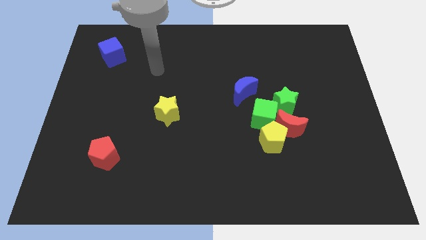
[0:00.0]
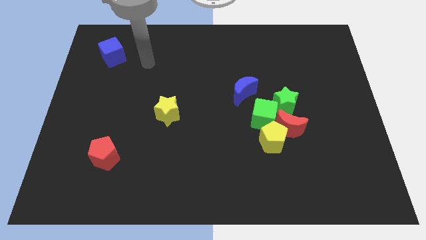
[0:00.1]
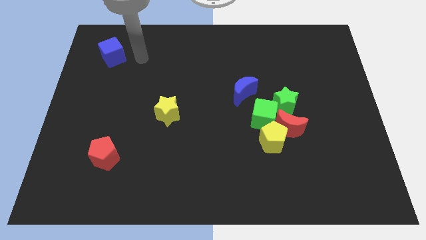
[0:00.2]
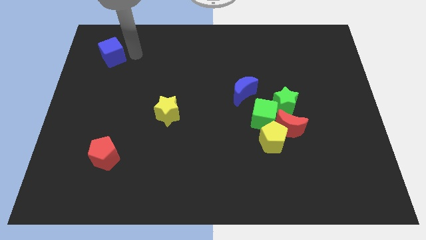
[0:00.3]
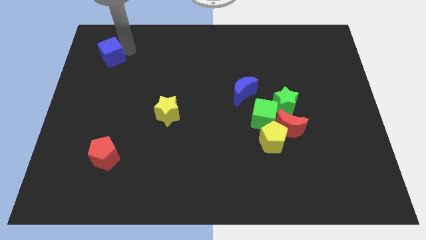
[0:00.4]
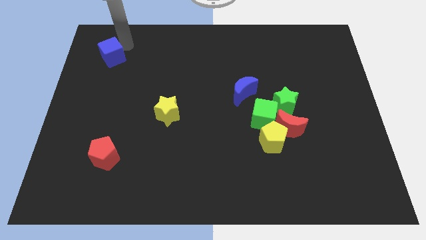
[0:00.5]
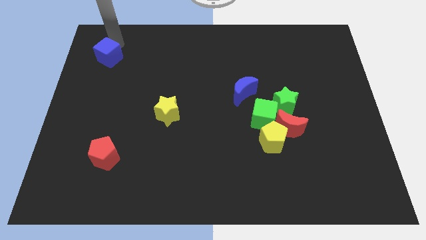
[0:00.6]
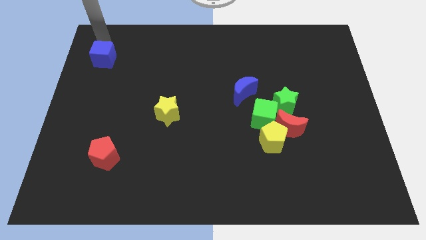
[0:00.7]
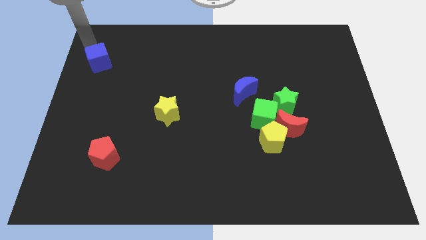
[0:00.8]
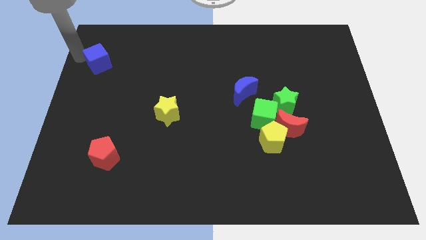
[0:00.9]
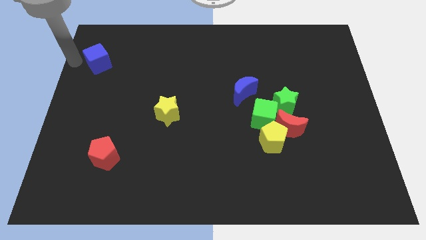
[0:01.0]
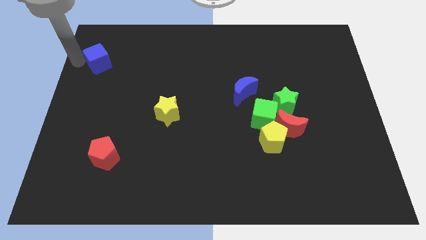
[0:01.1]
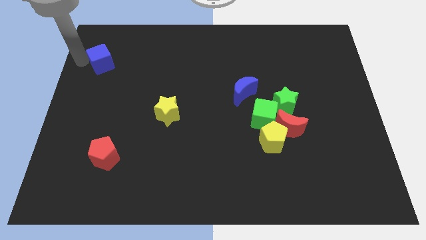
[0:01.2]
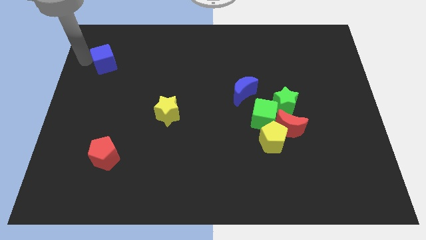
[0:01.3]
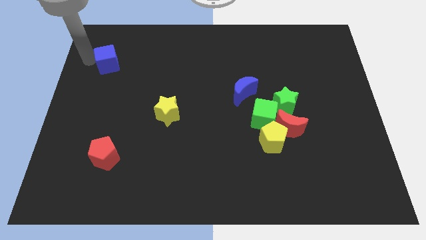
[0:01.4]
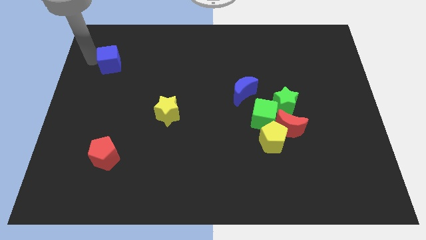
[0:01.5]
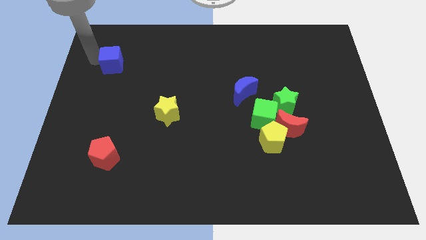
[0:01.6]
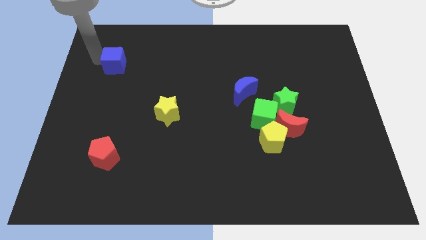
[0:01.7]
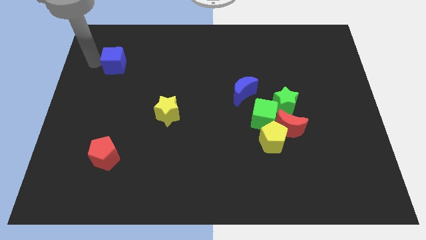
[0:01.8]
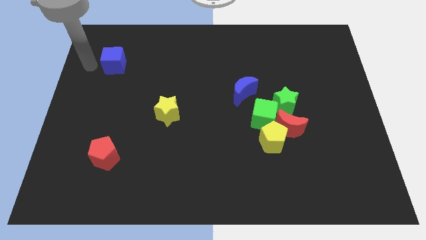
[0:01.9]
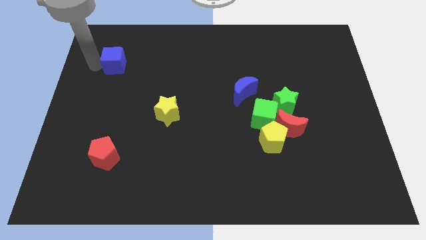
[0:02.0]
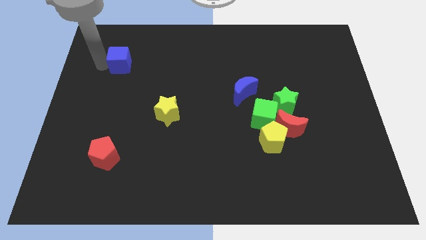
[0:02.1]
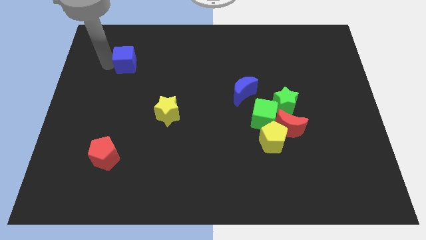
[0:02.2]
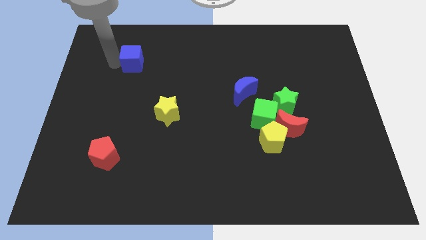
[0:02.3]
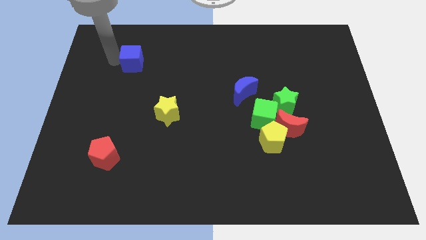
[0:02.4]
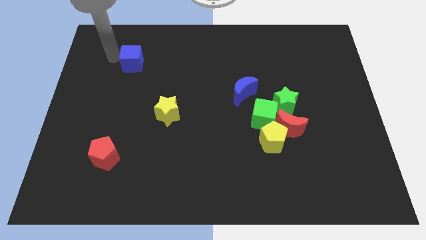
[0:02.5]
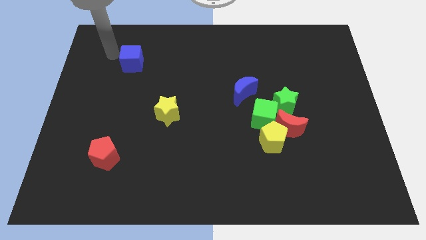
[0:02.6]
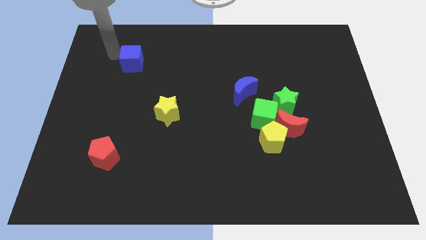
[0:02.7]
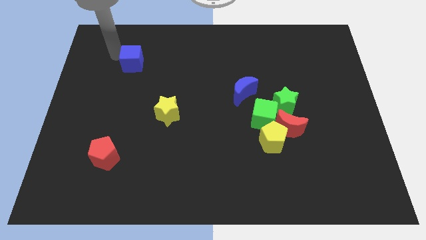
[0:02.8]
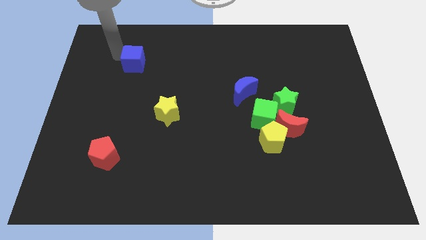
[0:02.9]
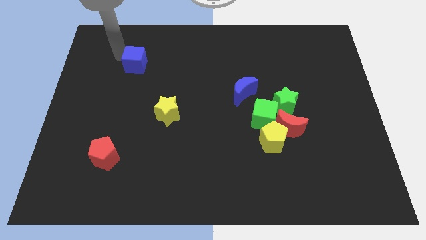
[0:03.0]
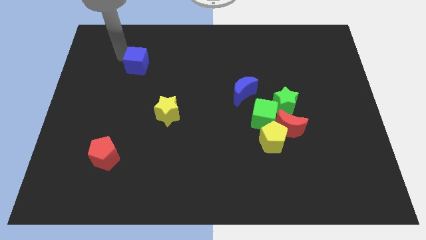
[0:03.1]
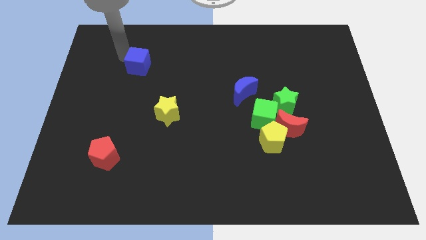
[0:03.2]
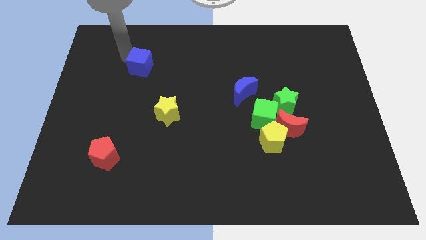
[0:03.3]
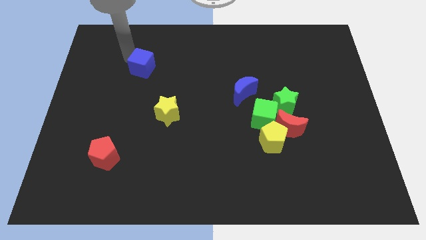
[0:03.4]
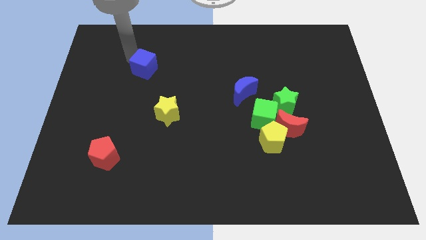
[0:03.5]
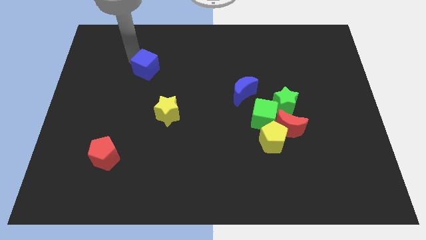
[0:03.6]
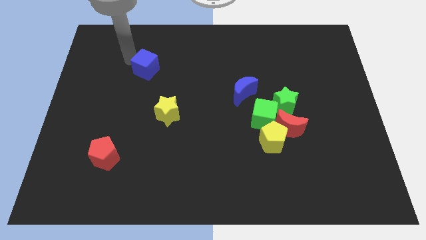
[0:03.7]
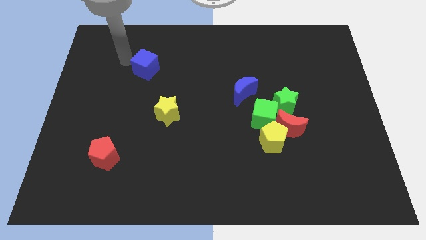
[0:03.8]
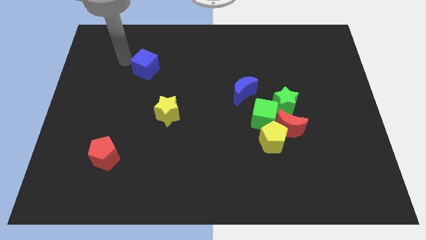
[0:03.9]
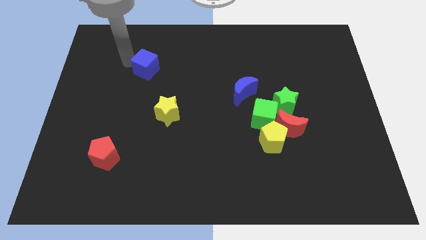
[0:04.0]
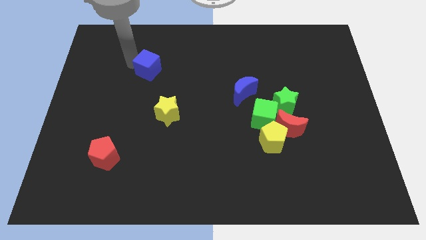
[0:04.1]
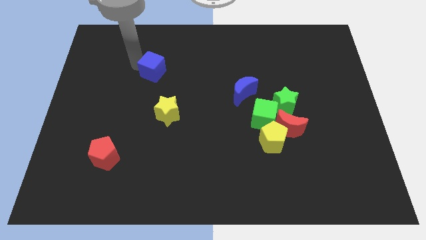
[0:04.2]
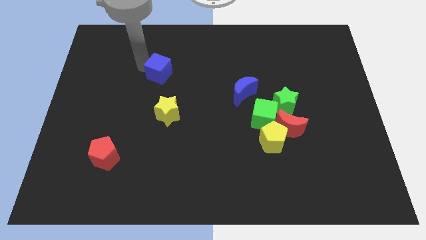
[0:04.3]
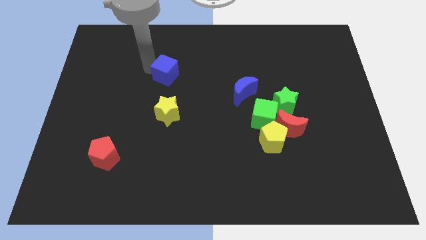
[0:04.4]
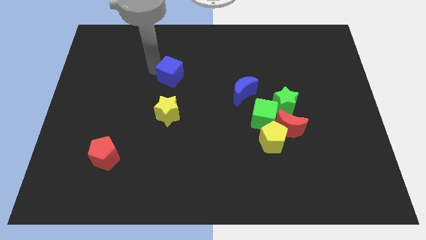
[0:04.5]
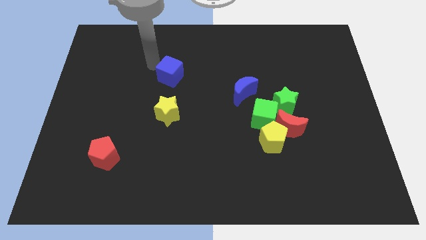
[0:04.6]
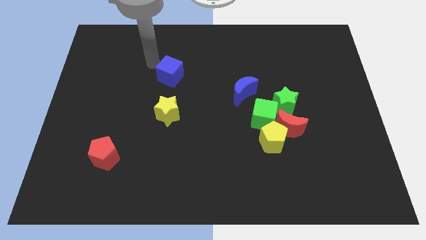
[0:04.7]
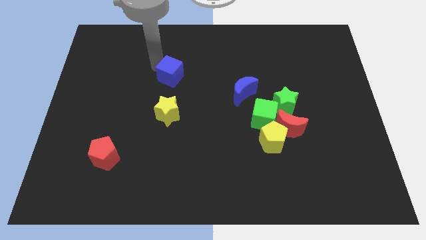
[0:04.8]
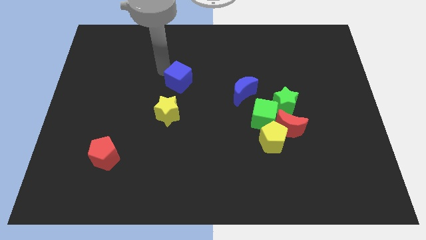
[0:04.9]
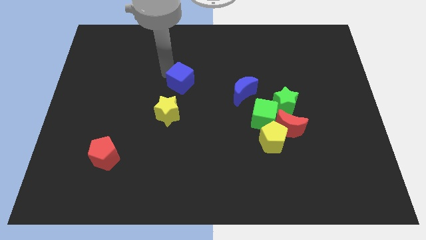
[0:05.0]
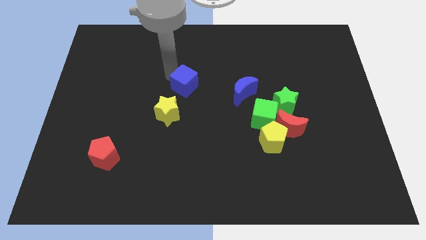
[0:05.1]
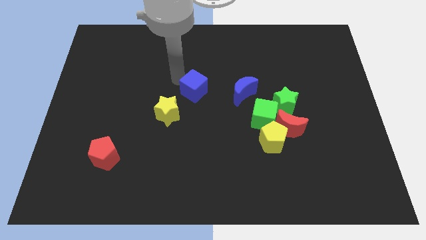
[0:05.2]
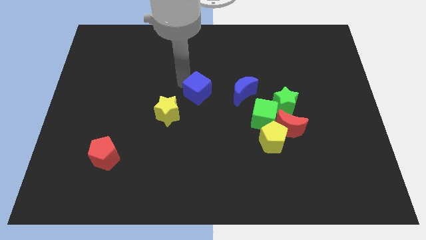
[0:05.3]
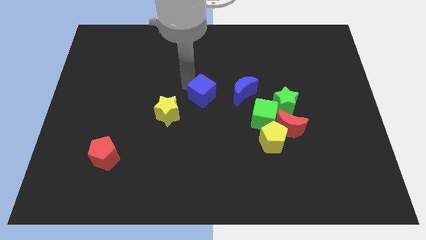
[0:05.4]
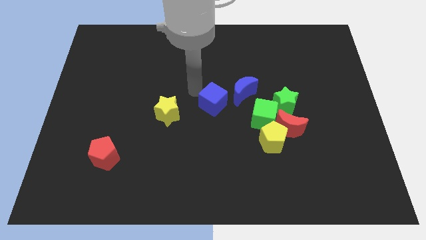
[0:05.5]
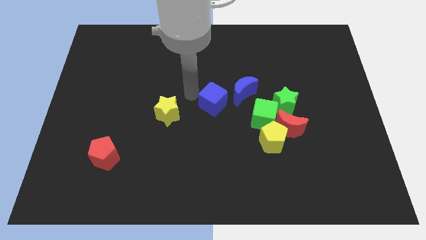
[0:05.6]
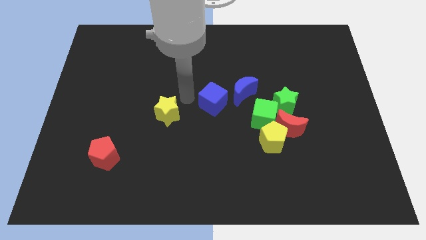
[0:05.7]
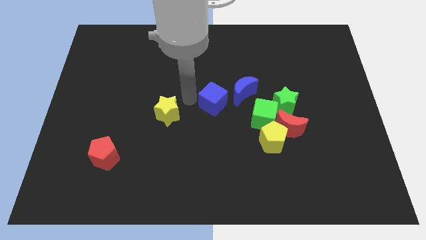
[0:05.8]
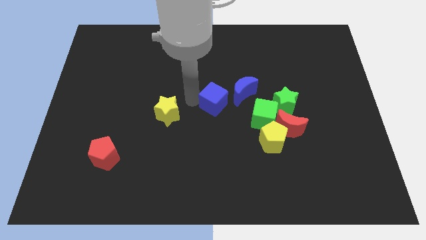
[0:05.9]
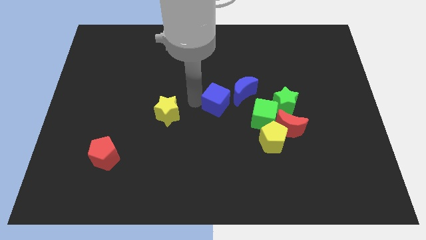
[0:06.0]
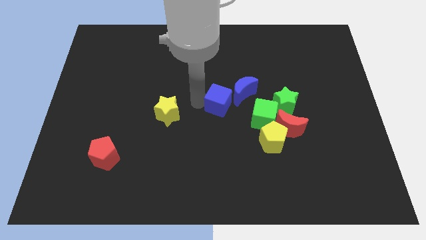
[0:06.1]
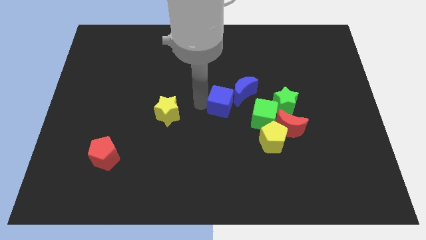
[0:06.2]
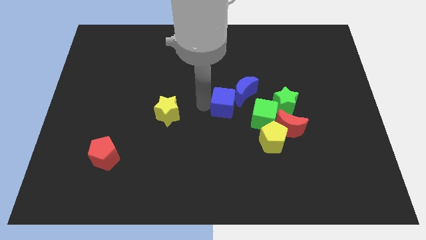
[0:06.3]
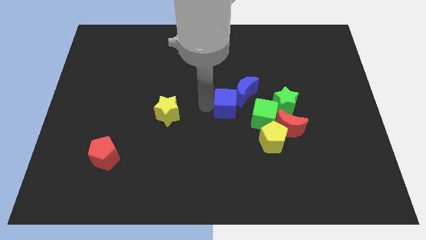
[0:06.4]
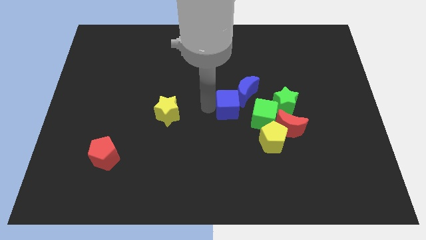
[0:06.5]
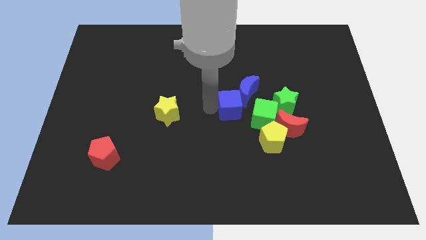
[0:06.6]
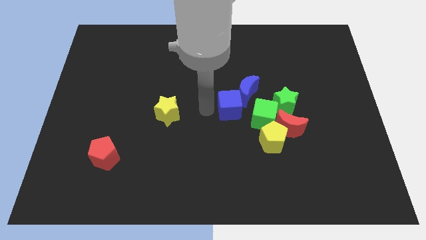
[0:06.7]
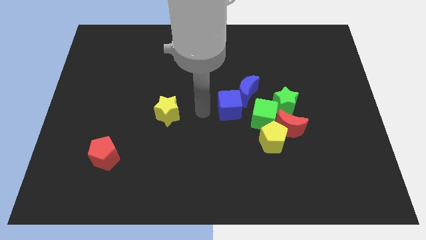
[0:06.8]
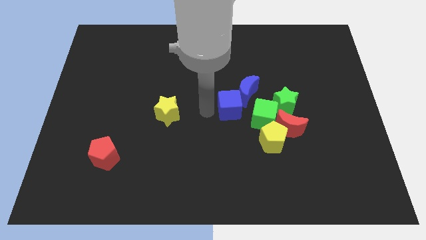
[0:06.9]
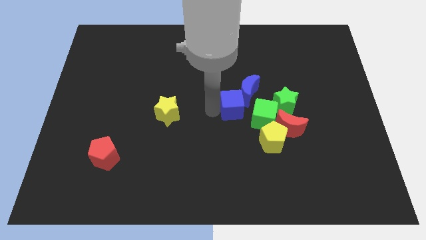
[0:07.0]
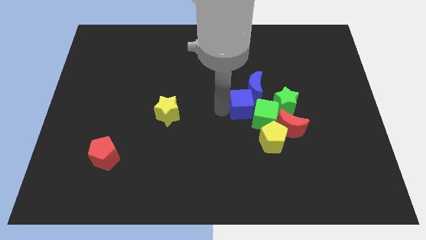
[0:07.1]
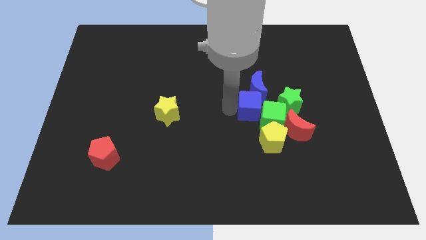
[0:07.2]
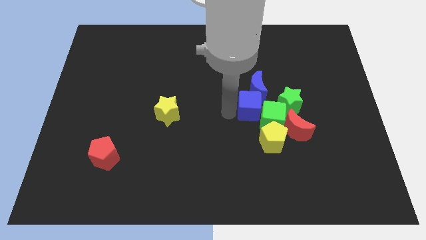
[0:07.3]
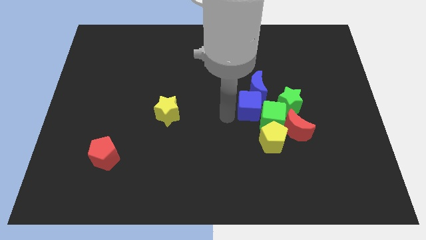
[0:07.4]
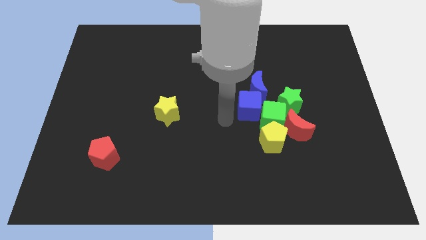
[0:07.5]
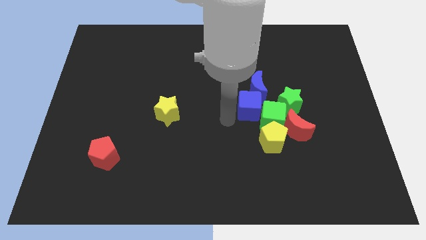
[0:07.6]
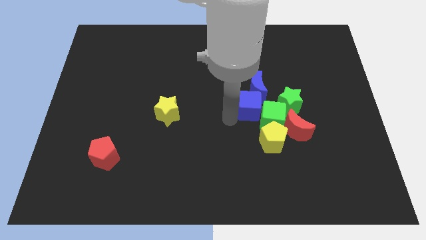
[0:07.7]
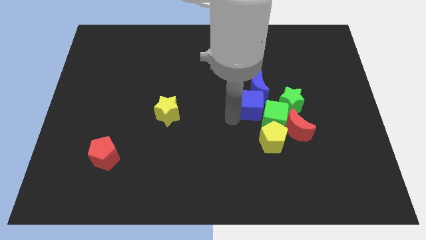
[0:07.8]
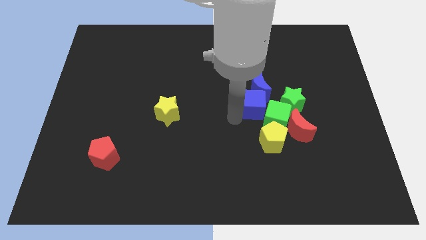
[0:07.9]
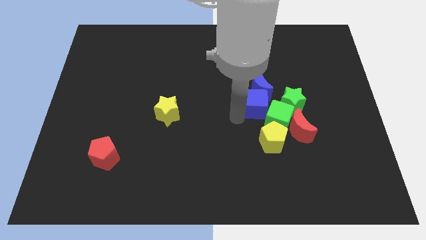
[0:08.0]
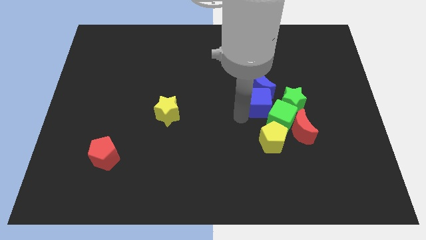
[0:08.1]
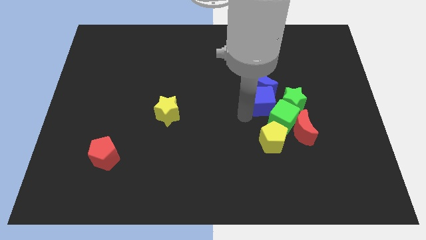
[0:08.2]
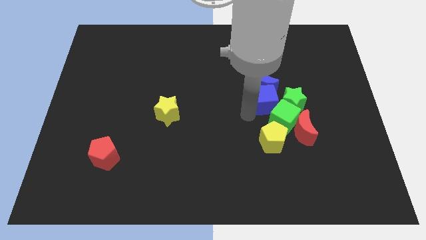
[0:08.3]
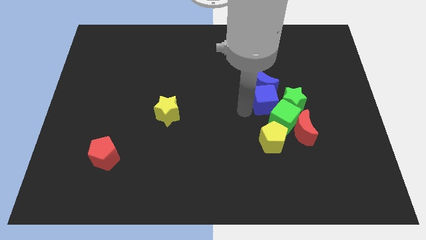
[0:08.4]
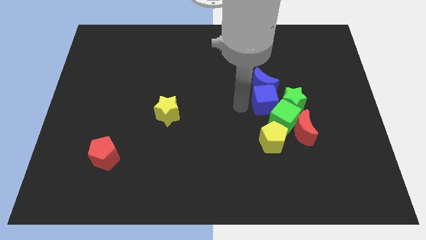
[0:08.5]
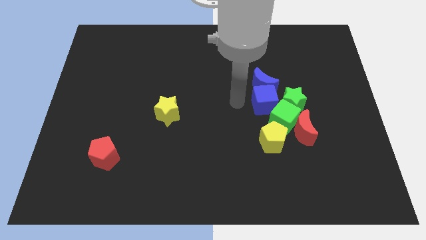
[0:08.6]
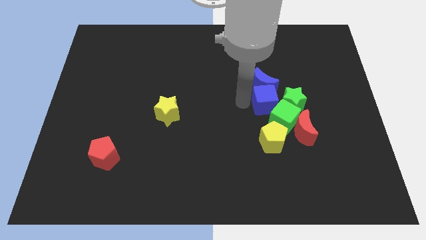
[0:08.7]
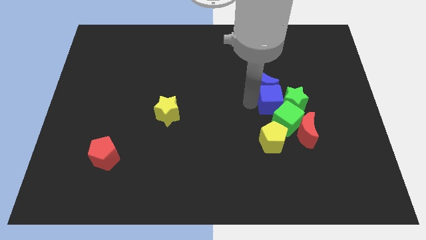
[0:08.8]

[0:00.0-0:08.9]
slide the blue cube towards the green star
